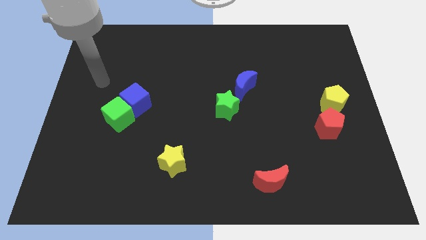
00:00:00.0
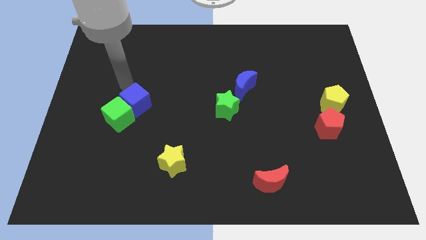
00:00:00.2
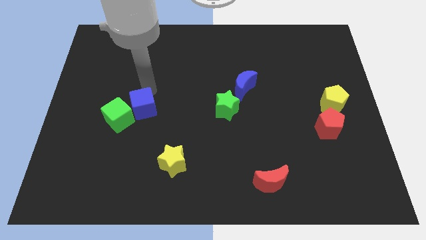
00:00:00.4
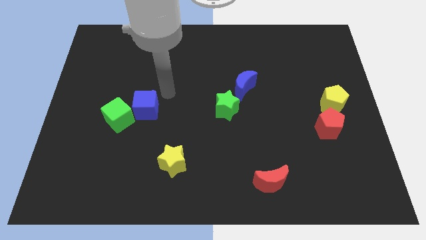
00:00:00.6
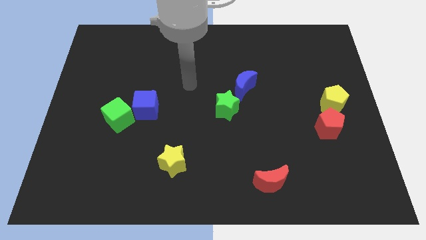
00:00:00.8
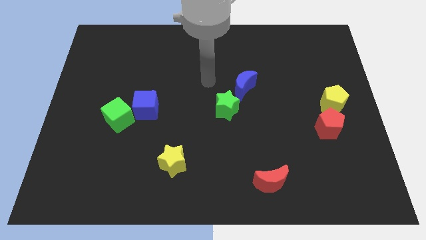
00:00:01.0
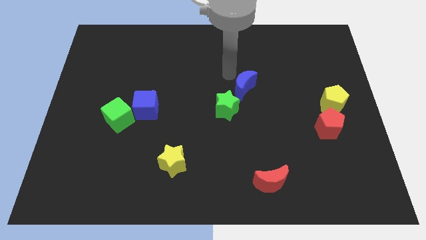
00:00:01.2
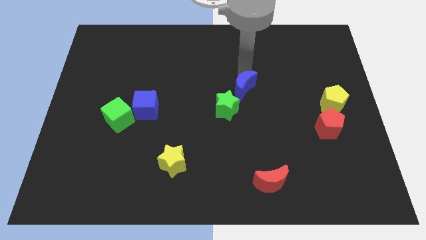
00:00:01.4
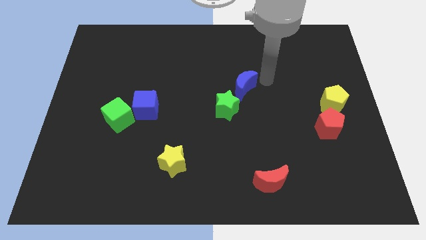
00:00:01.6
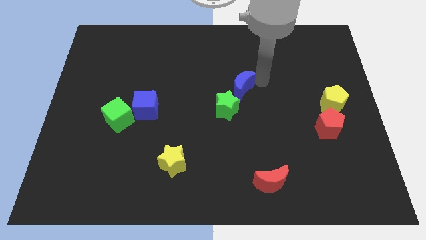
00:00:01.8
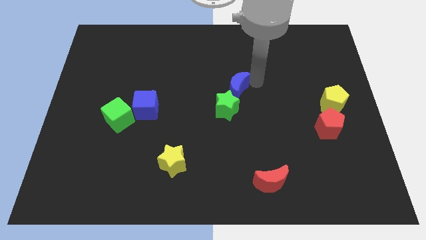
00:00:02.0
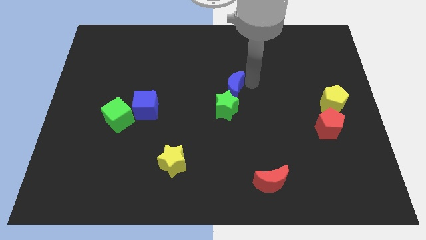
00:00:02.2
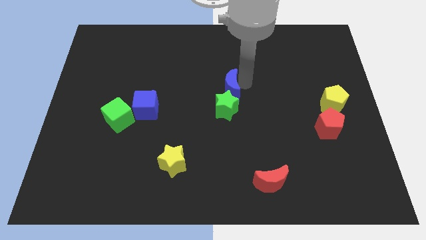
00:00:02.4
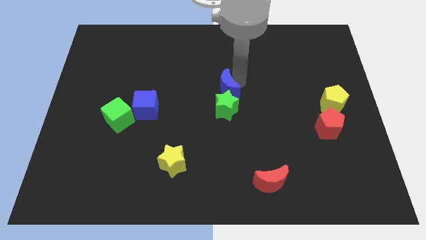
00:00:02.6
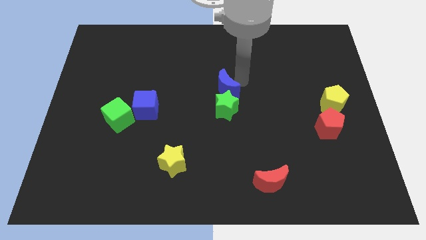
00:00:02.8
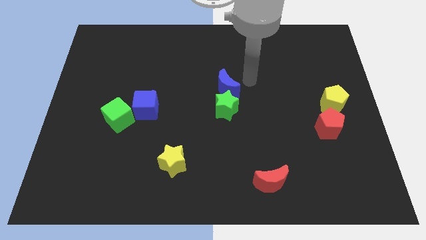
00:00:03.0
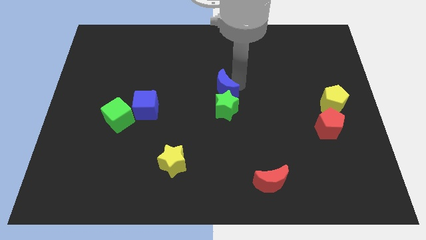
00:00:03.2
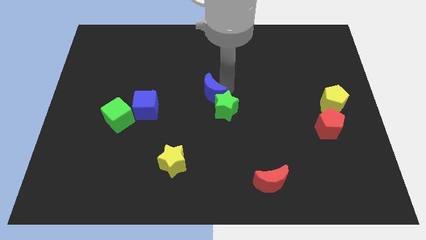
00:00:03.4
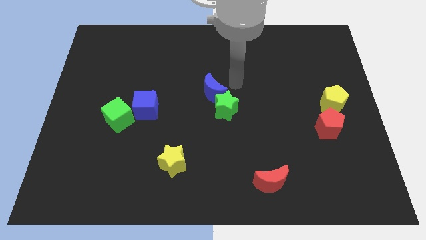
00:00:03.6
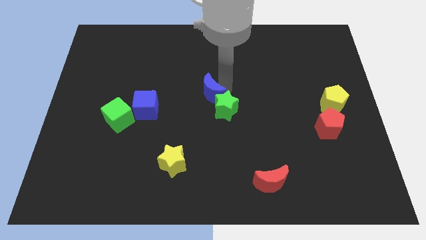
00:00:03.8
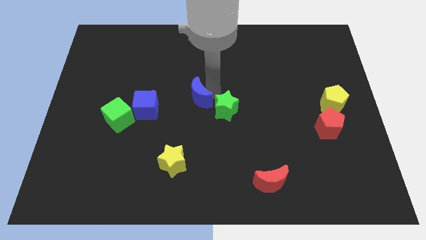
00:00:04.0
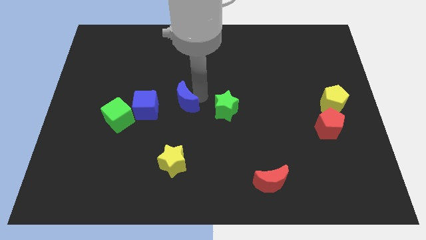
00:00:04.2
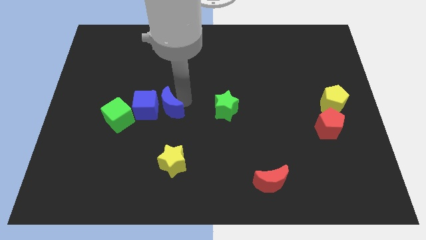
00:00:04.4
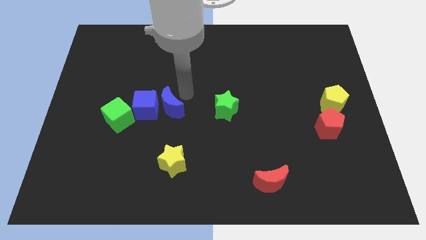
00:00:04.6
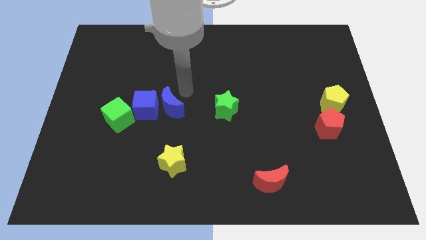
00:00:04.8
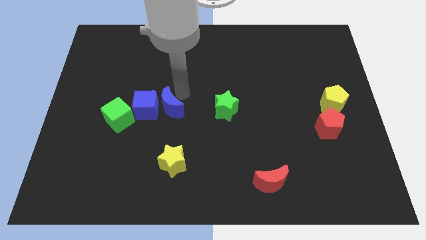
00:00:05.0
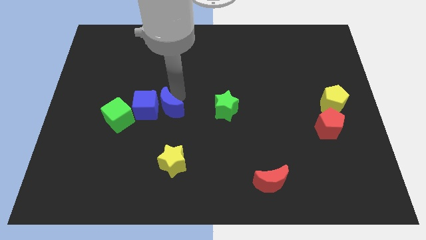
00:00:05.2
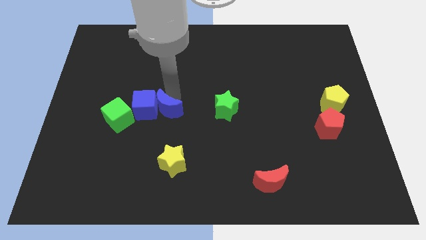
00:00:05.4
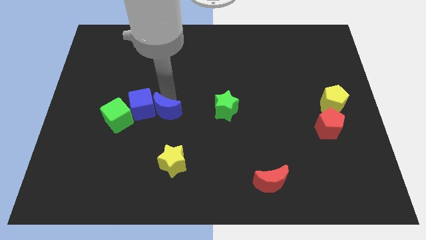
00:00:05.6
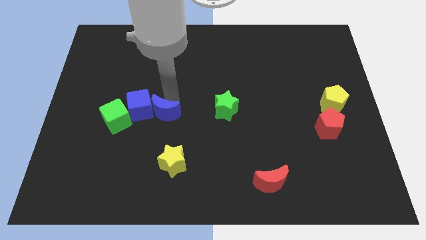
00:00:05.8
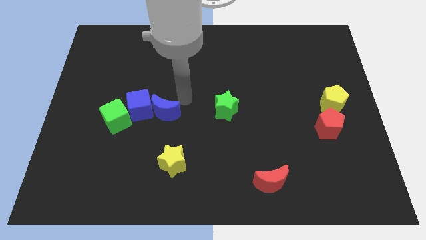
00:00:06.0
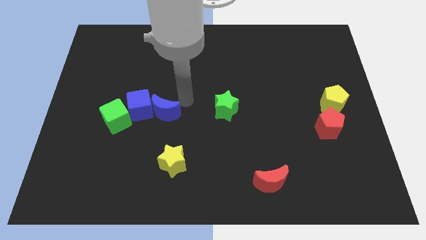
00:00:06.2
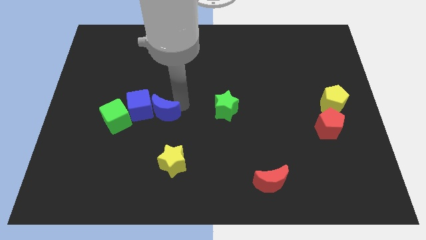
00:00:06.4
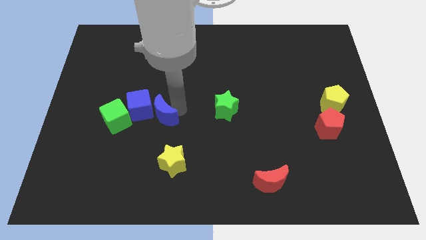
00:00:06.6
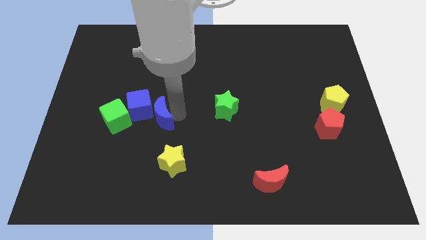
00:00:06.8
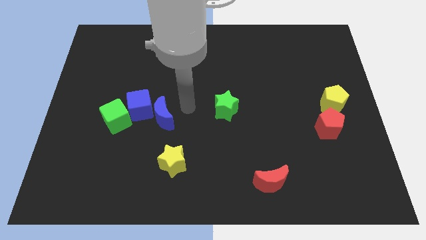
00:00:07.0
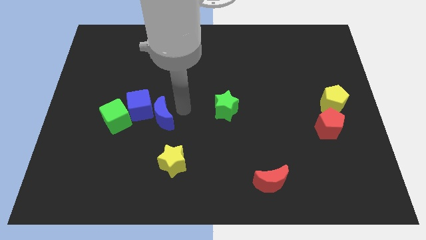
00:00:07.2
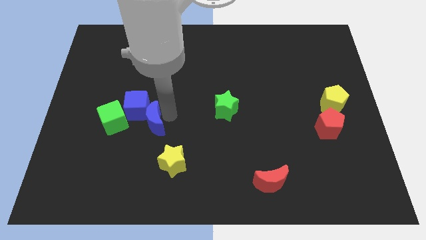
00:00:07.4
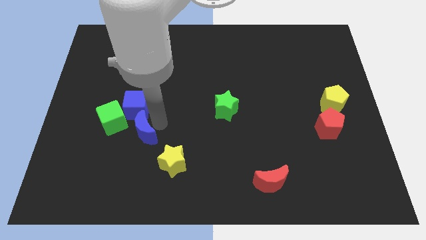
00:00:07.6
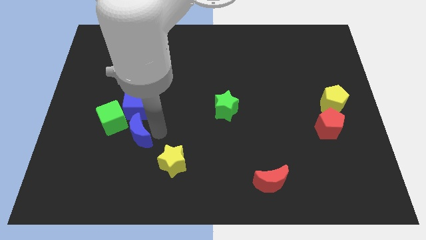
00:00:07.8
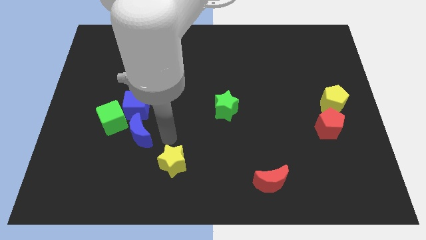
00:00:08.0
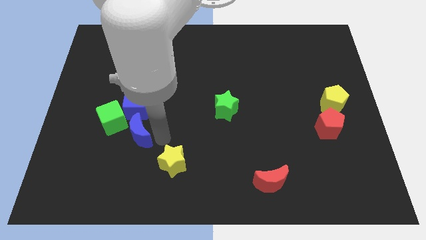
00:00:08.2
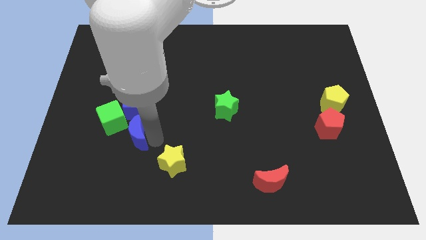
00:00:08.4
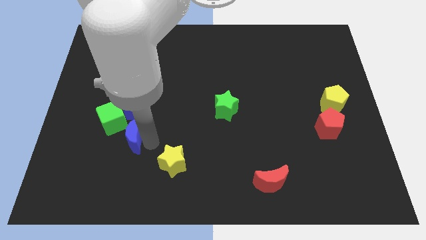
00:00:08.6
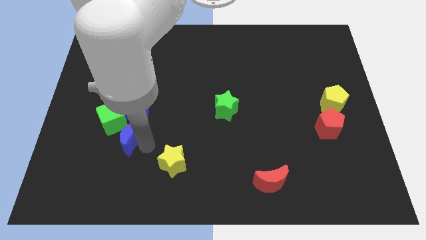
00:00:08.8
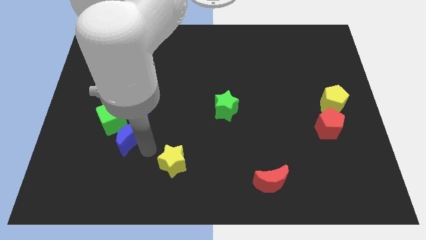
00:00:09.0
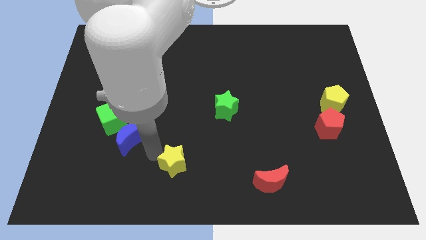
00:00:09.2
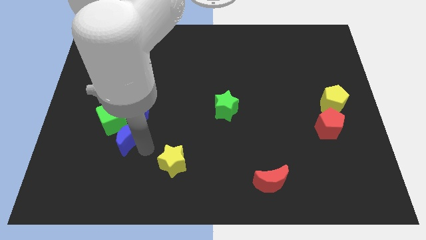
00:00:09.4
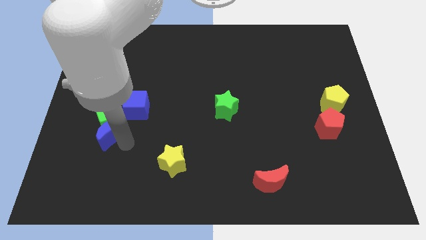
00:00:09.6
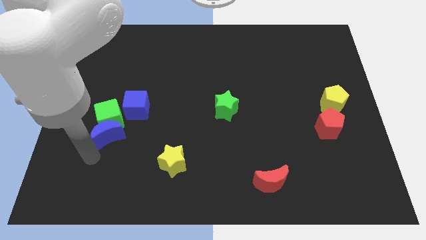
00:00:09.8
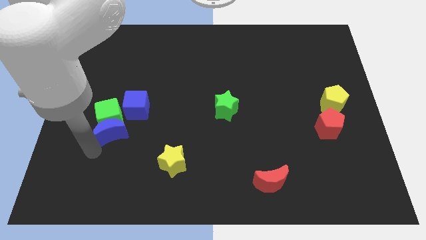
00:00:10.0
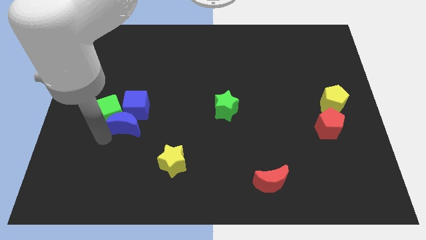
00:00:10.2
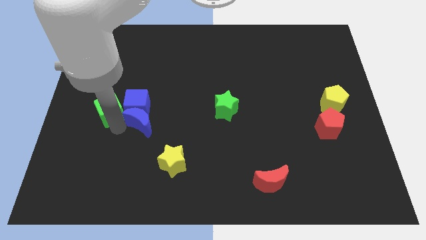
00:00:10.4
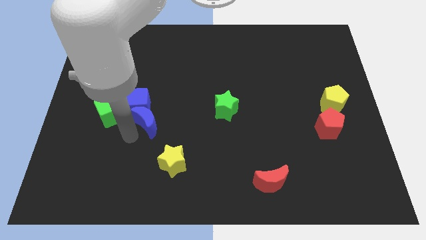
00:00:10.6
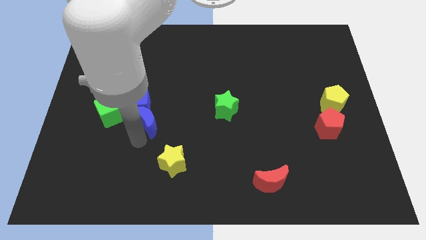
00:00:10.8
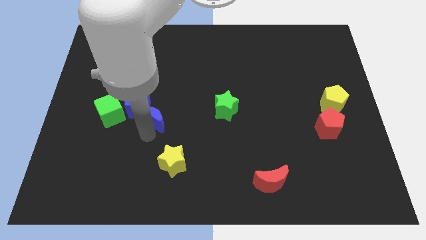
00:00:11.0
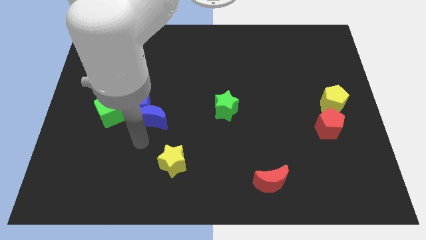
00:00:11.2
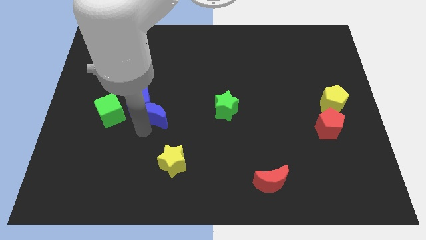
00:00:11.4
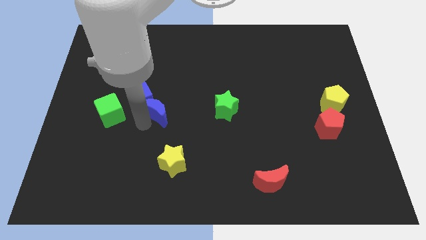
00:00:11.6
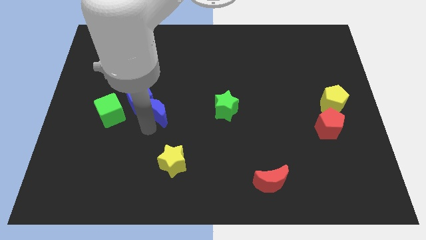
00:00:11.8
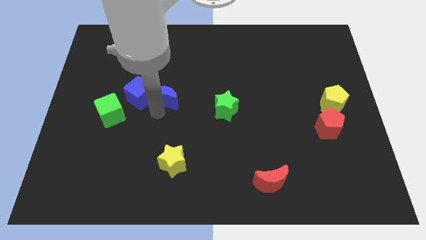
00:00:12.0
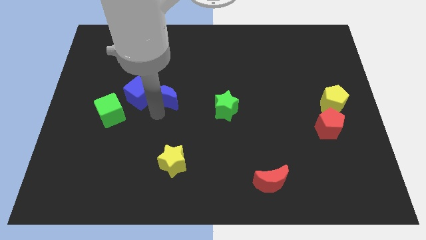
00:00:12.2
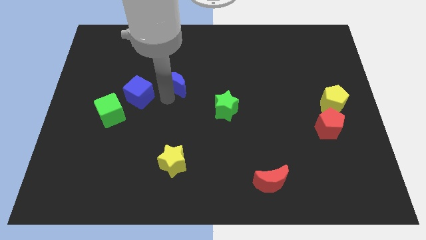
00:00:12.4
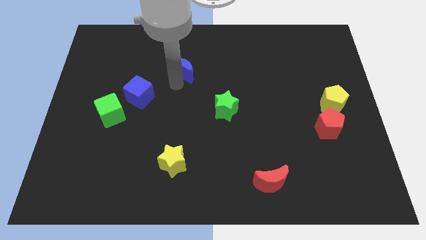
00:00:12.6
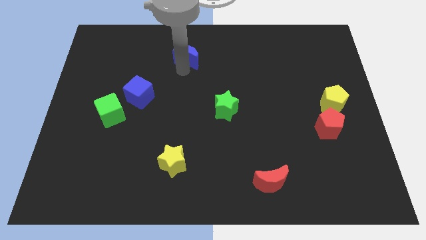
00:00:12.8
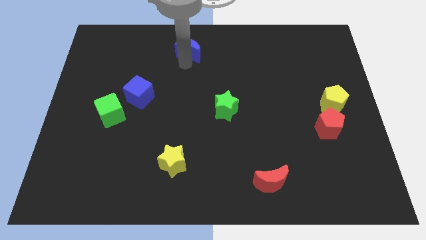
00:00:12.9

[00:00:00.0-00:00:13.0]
slide the blue moon to the top
